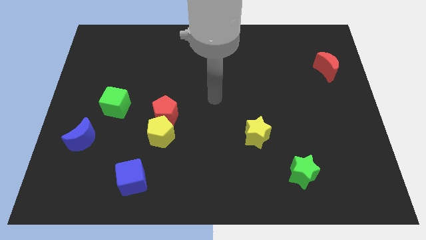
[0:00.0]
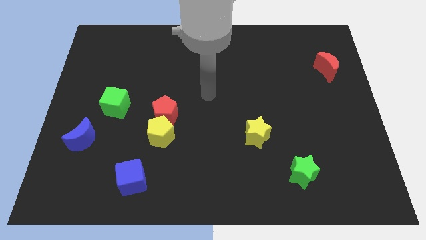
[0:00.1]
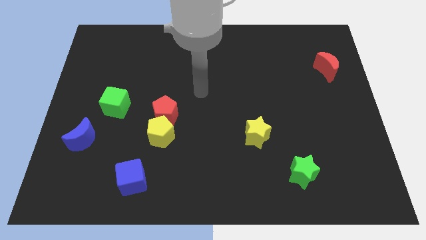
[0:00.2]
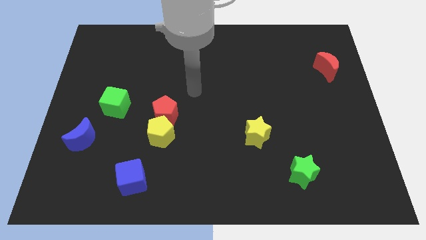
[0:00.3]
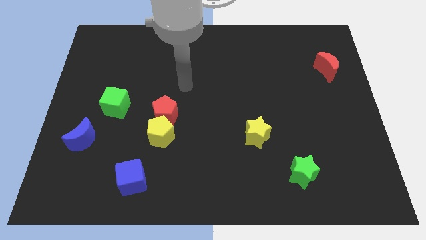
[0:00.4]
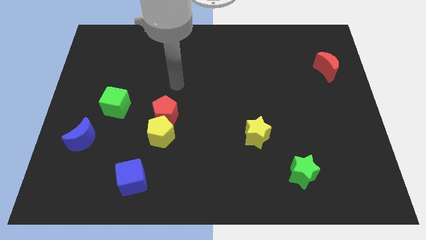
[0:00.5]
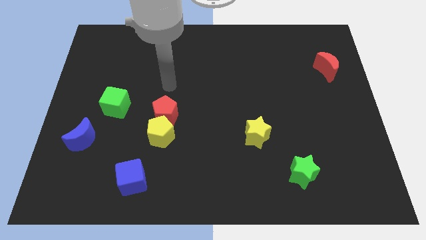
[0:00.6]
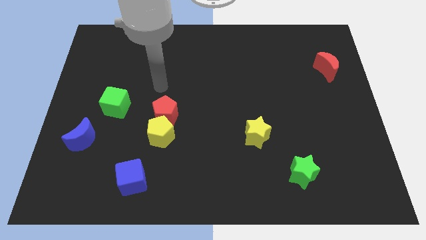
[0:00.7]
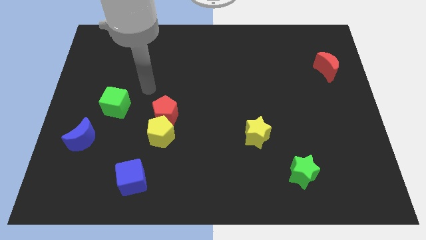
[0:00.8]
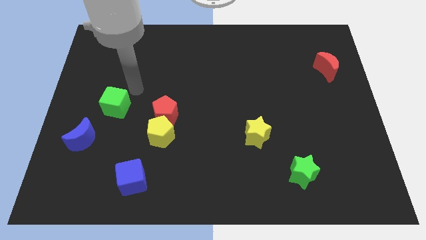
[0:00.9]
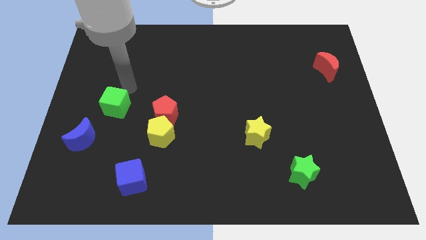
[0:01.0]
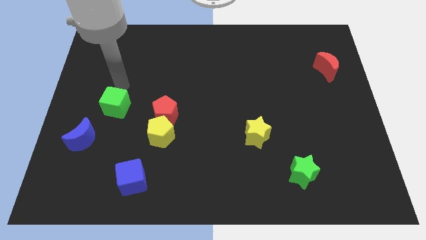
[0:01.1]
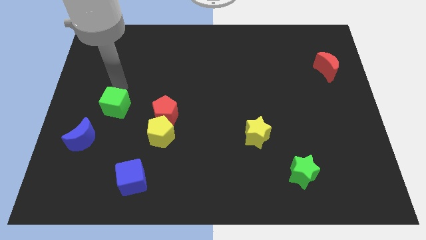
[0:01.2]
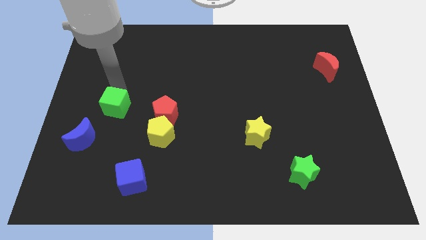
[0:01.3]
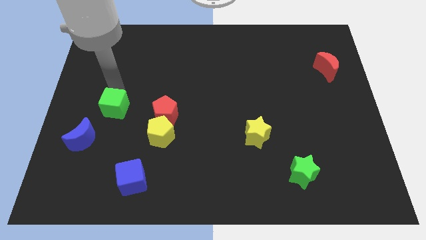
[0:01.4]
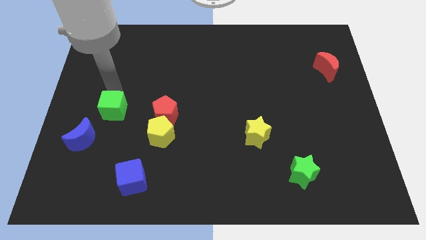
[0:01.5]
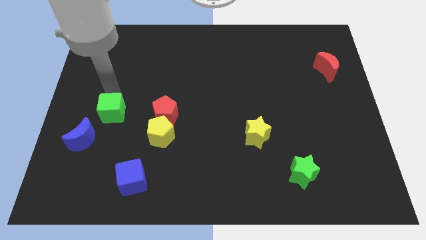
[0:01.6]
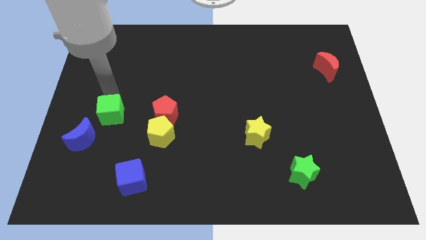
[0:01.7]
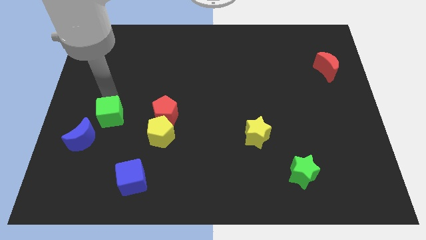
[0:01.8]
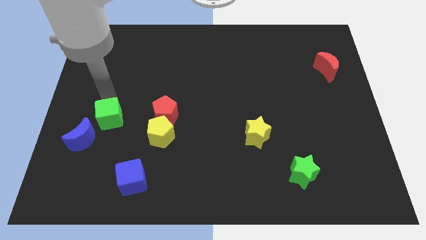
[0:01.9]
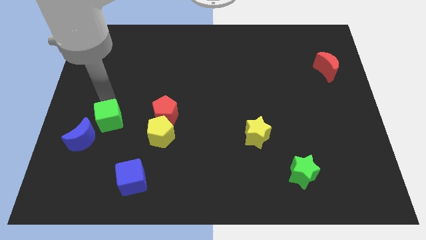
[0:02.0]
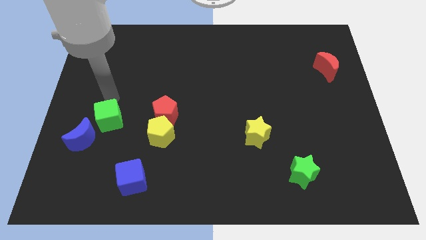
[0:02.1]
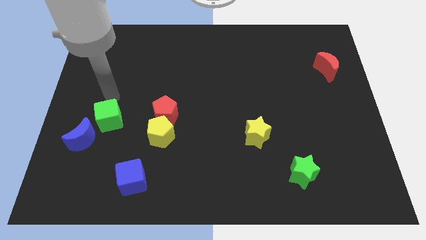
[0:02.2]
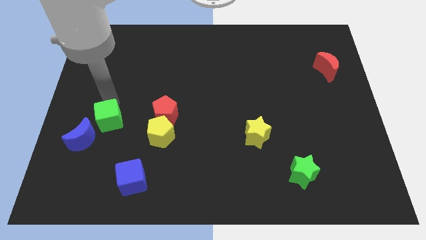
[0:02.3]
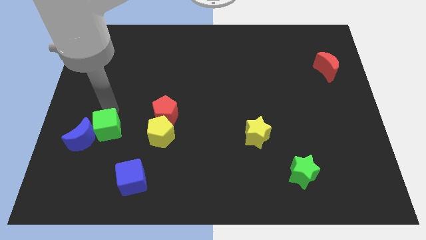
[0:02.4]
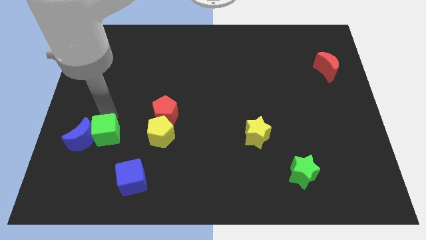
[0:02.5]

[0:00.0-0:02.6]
move the green cube down slightly

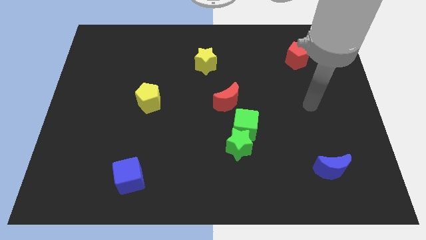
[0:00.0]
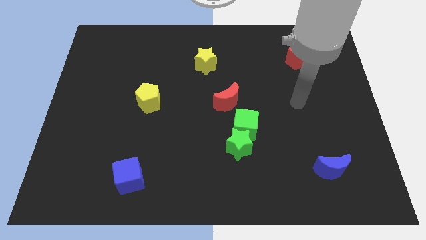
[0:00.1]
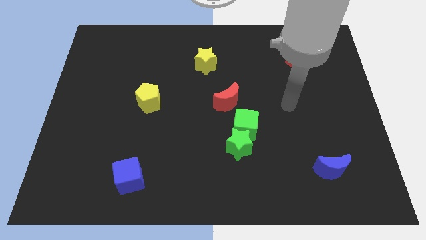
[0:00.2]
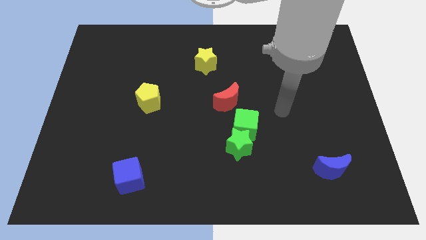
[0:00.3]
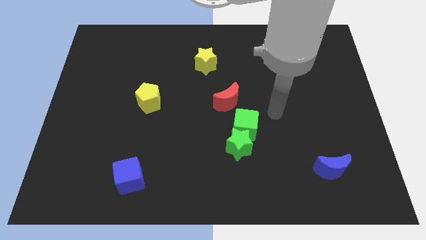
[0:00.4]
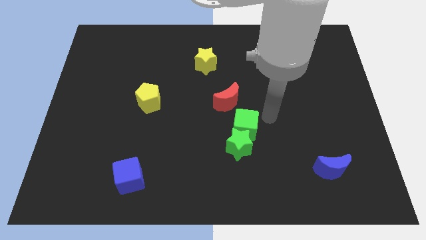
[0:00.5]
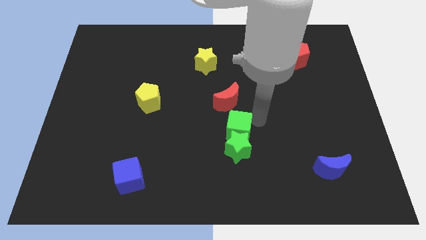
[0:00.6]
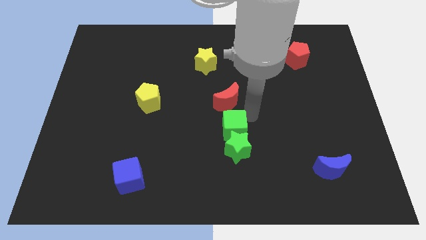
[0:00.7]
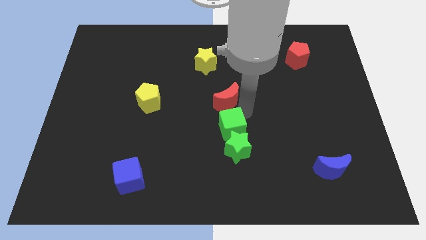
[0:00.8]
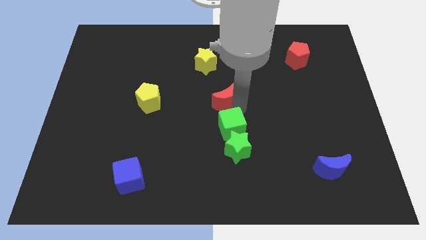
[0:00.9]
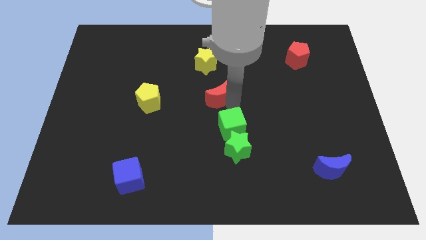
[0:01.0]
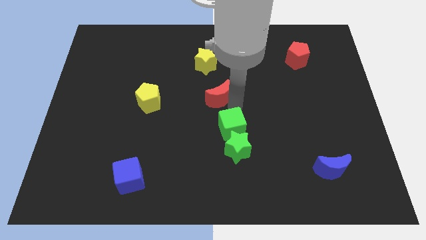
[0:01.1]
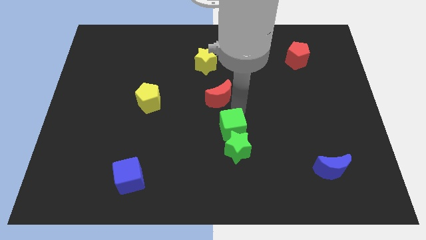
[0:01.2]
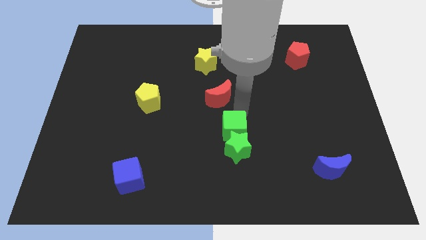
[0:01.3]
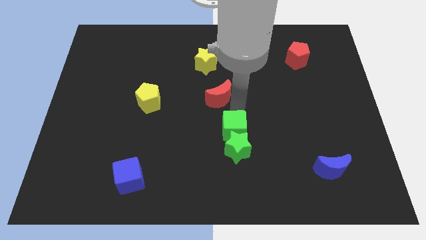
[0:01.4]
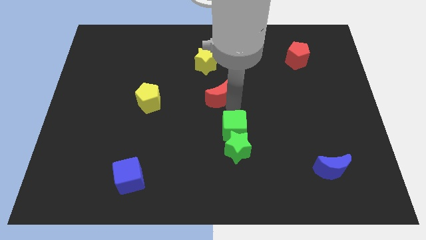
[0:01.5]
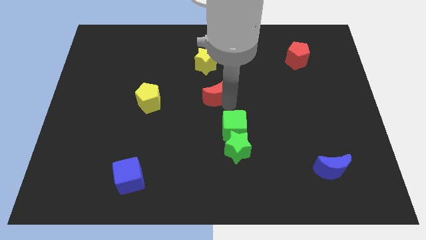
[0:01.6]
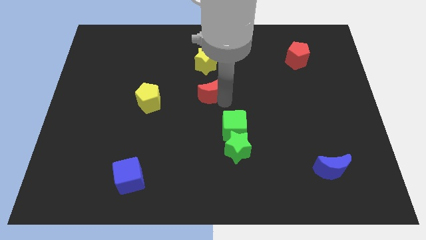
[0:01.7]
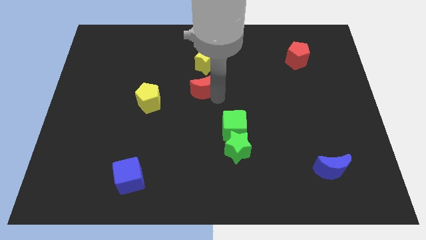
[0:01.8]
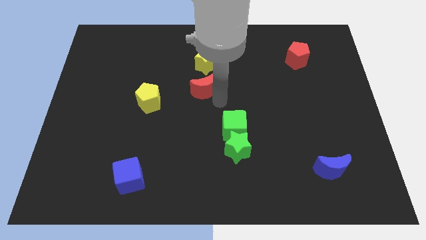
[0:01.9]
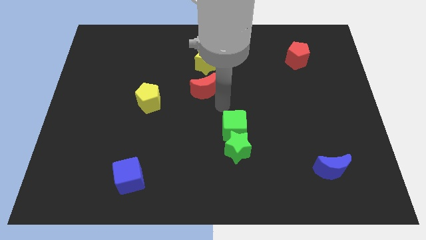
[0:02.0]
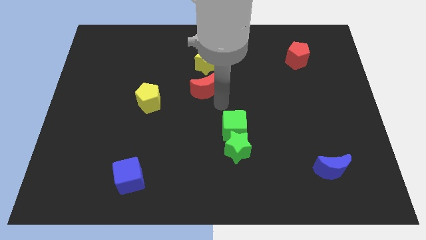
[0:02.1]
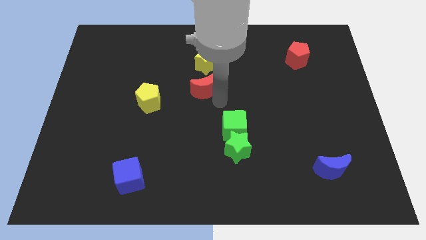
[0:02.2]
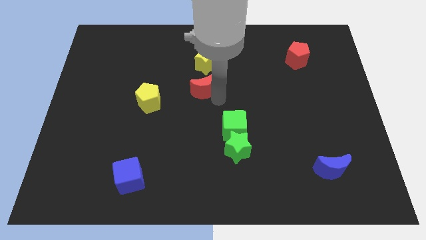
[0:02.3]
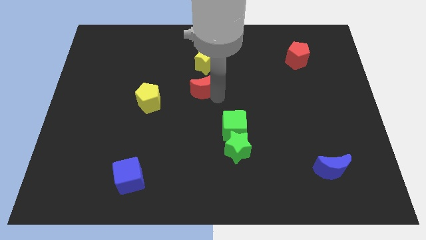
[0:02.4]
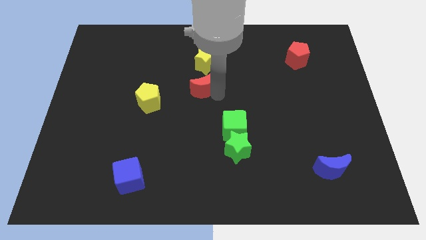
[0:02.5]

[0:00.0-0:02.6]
slightly slide the red moon up and left

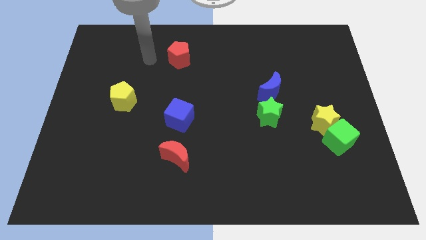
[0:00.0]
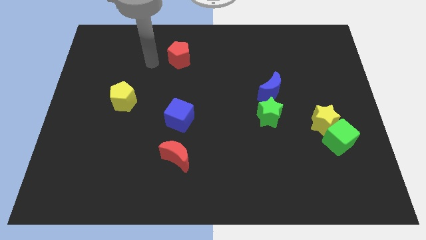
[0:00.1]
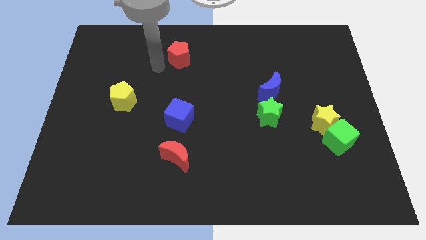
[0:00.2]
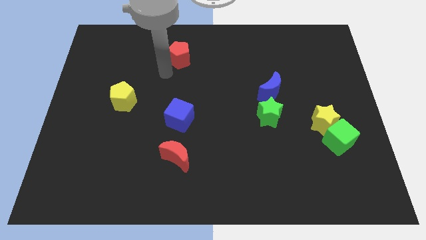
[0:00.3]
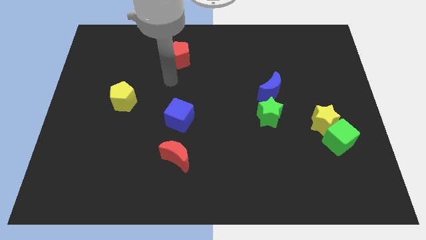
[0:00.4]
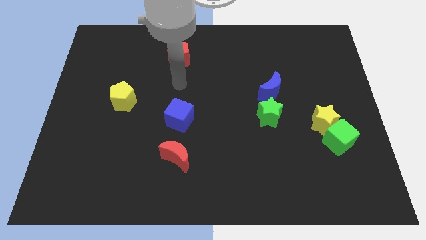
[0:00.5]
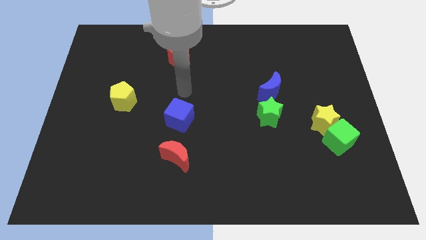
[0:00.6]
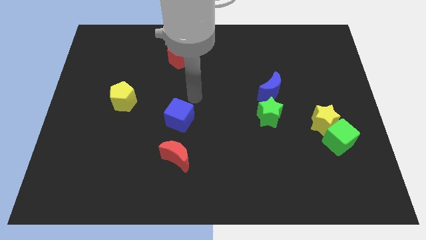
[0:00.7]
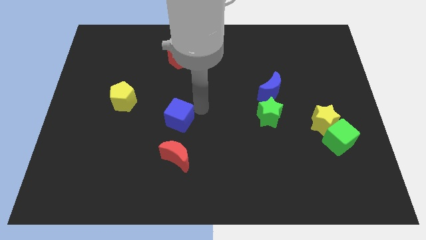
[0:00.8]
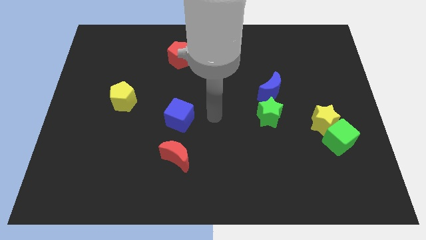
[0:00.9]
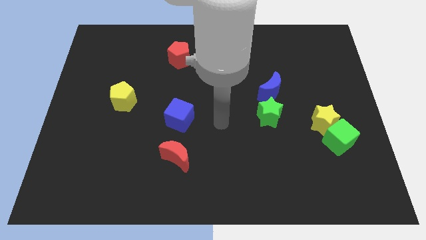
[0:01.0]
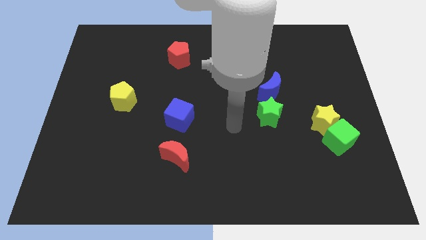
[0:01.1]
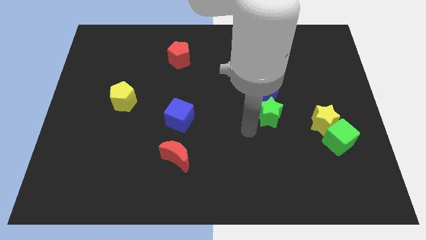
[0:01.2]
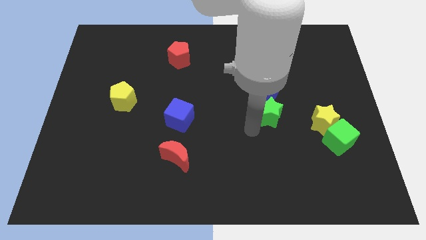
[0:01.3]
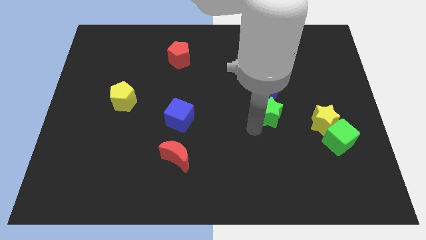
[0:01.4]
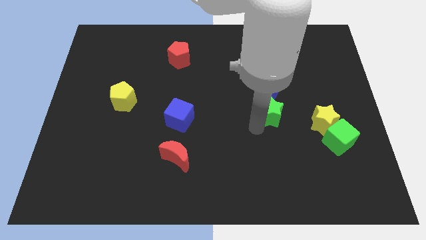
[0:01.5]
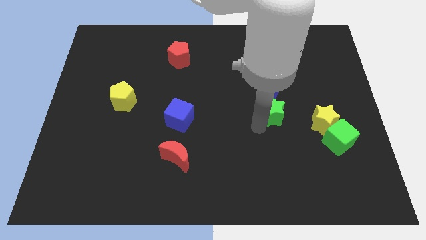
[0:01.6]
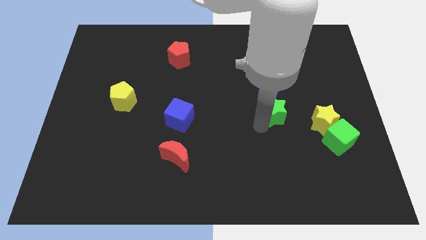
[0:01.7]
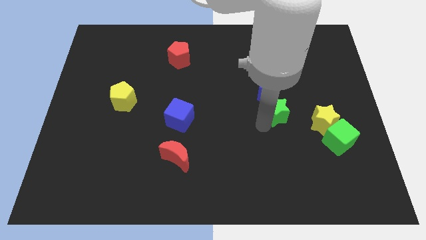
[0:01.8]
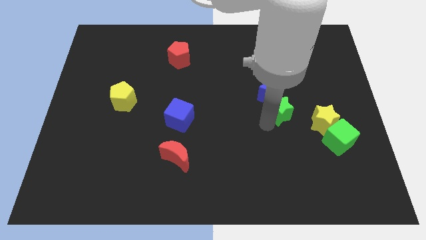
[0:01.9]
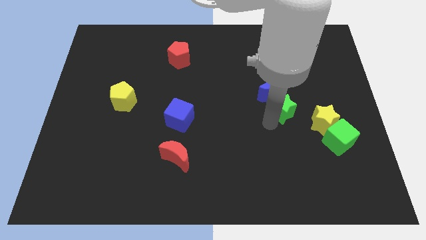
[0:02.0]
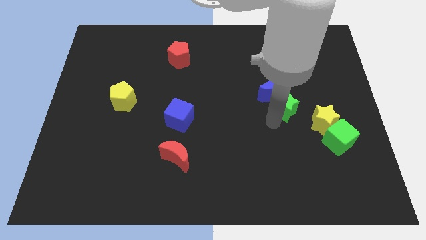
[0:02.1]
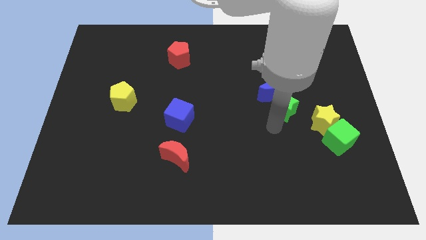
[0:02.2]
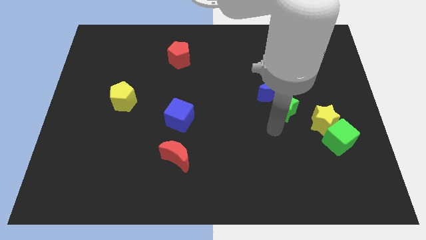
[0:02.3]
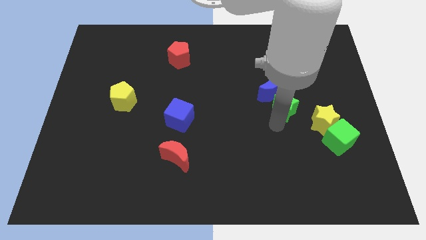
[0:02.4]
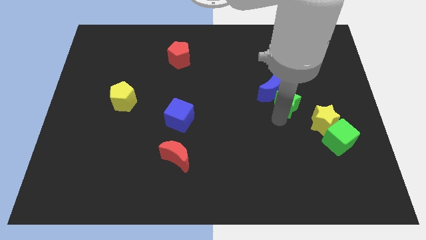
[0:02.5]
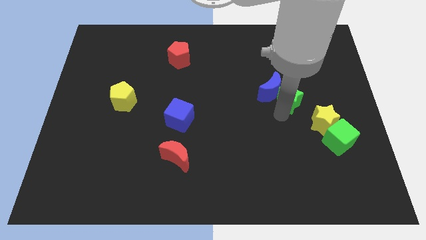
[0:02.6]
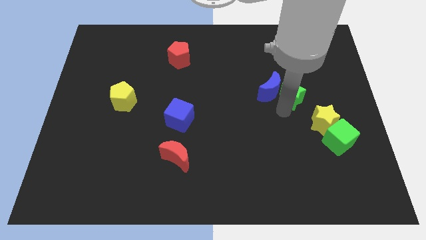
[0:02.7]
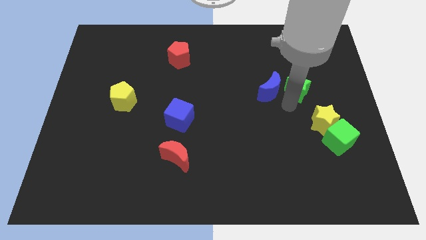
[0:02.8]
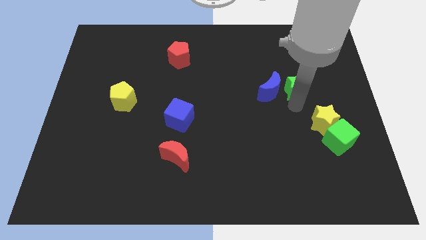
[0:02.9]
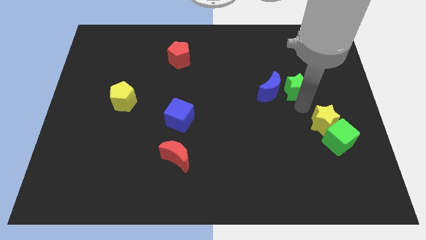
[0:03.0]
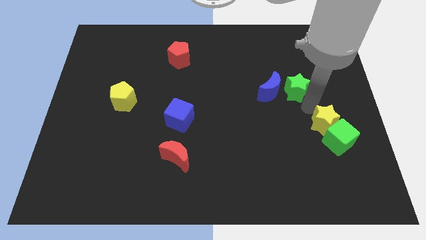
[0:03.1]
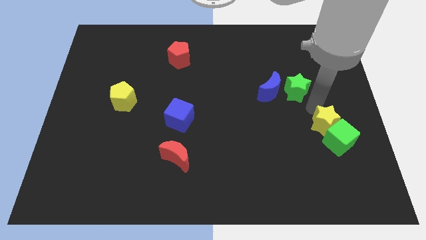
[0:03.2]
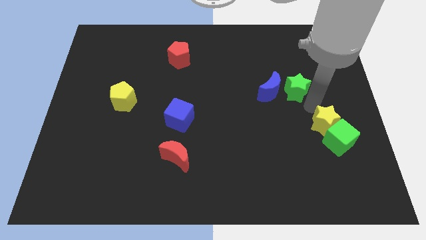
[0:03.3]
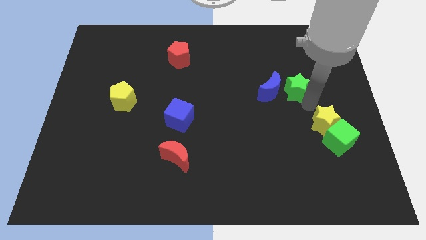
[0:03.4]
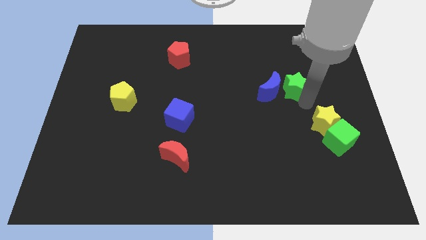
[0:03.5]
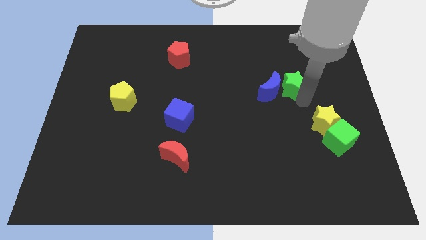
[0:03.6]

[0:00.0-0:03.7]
move the green star upwards a little bit
